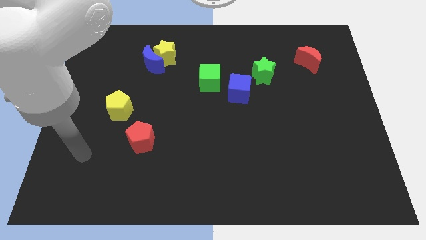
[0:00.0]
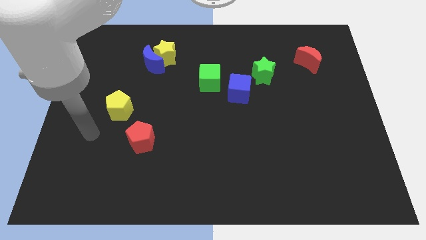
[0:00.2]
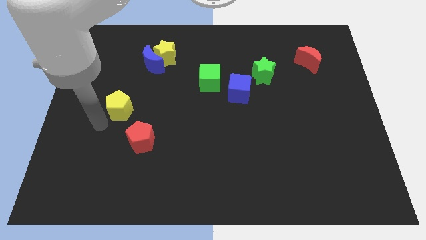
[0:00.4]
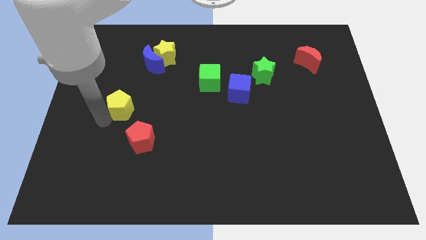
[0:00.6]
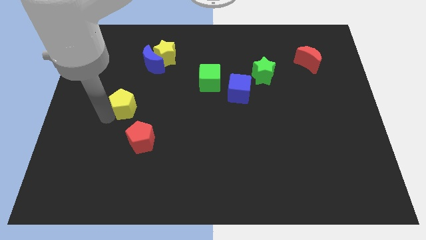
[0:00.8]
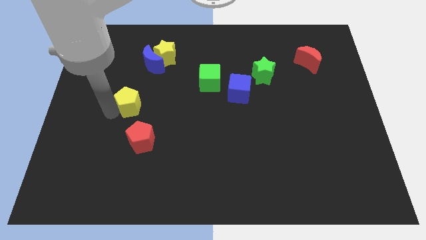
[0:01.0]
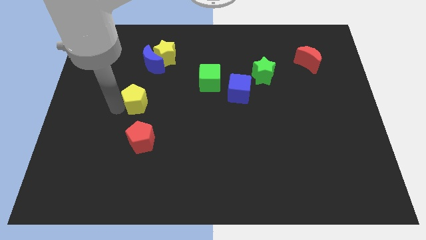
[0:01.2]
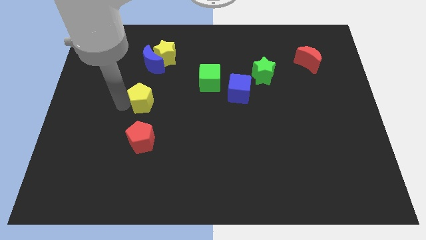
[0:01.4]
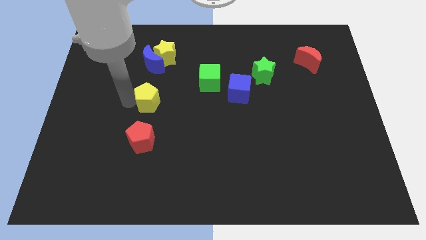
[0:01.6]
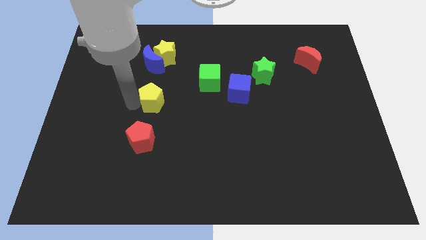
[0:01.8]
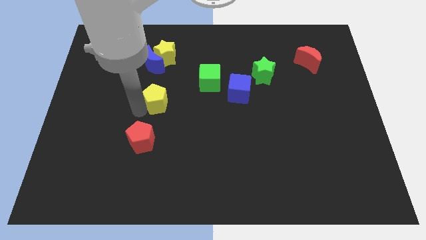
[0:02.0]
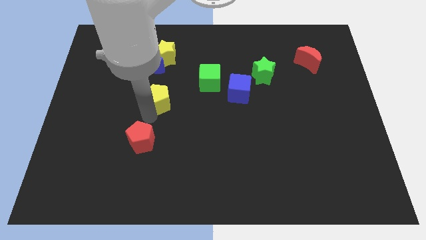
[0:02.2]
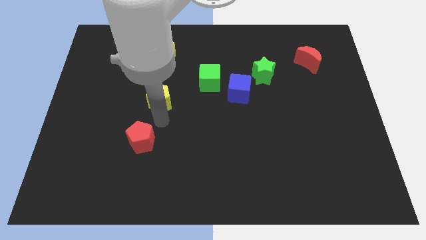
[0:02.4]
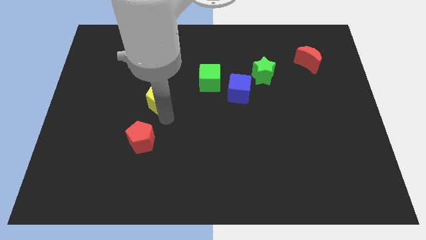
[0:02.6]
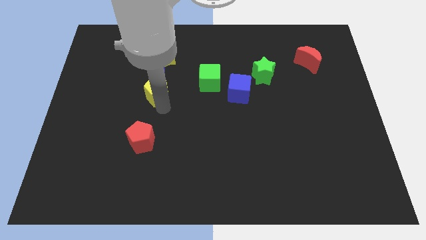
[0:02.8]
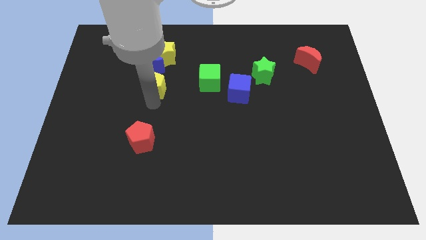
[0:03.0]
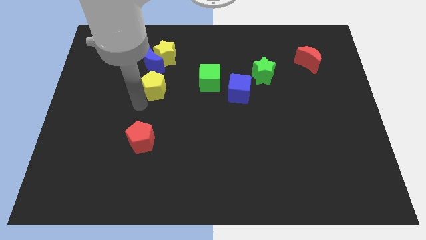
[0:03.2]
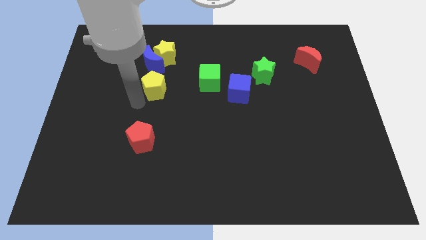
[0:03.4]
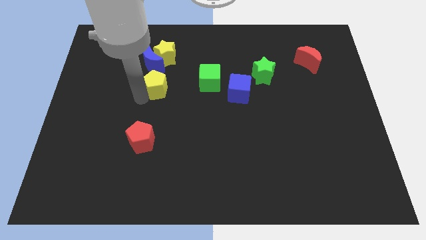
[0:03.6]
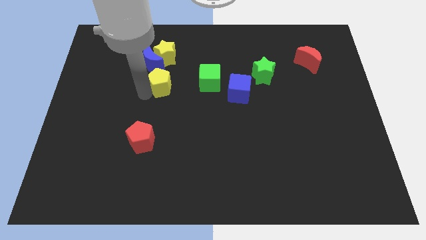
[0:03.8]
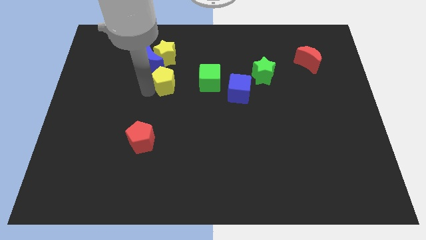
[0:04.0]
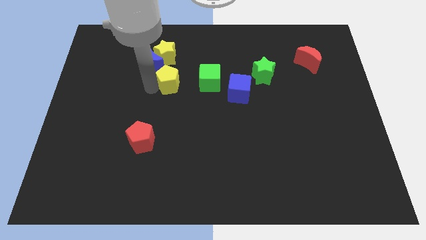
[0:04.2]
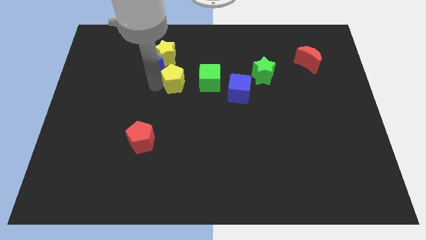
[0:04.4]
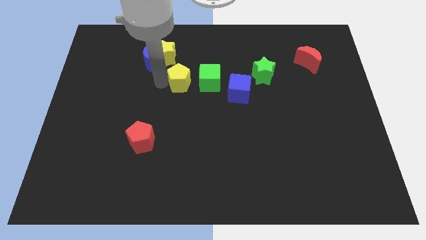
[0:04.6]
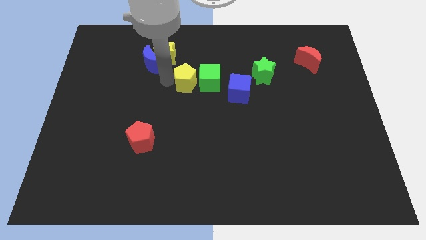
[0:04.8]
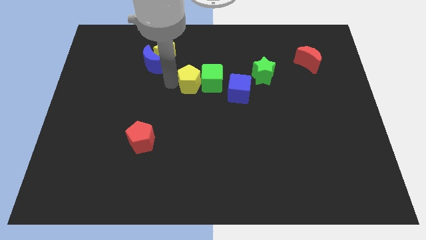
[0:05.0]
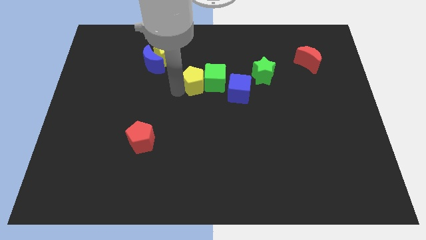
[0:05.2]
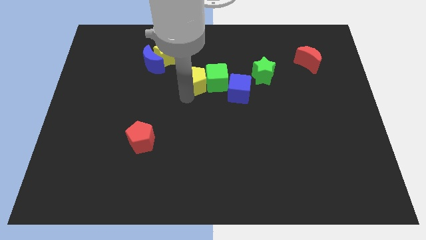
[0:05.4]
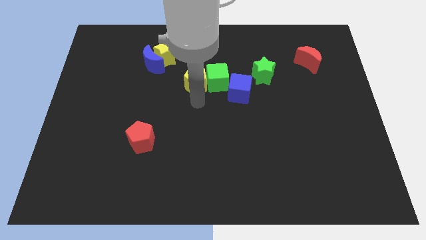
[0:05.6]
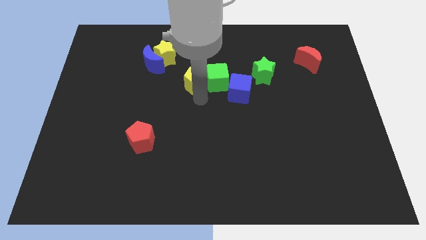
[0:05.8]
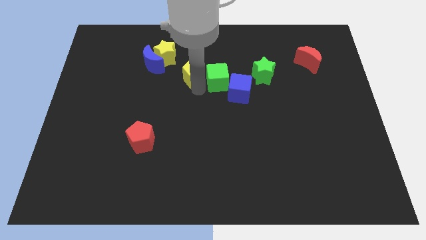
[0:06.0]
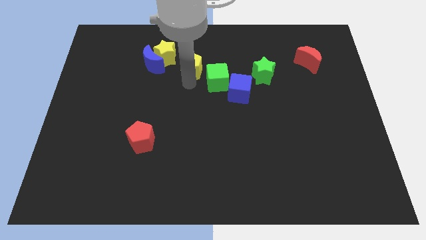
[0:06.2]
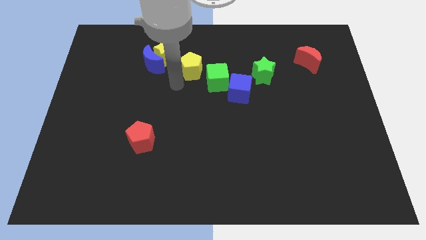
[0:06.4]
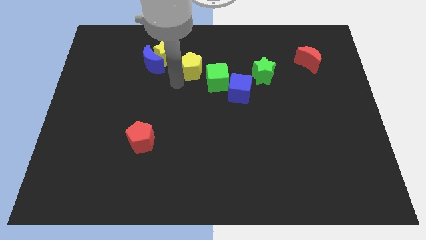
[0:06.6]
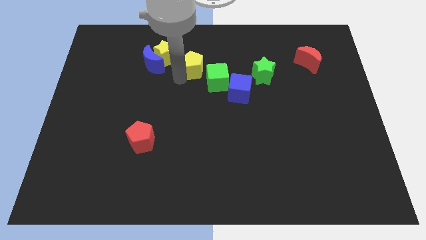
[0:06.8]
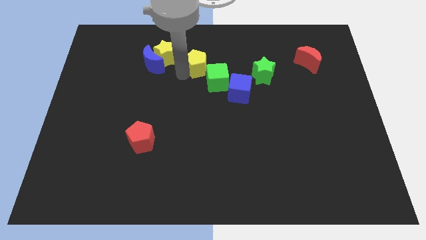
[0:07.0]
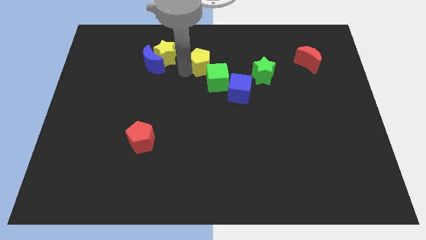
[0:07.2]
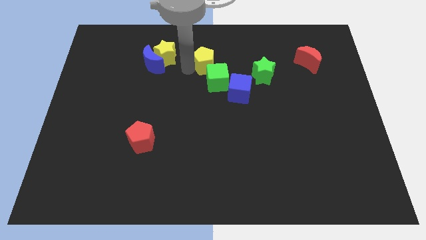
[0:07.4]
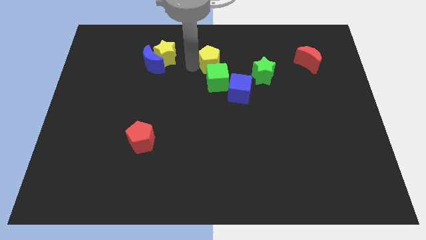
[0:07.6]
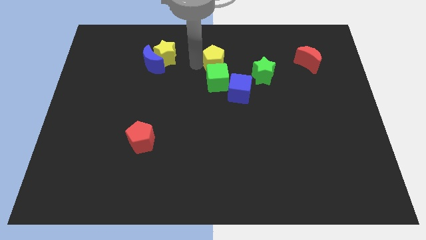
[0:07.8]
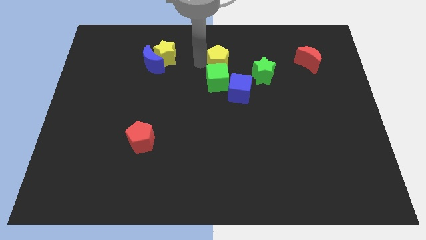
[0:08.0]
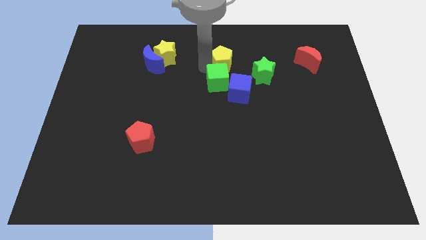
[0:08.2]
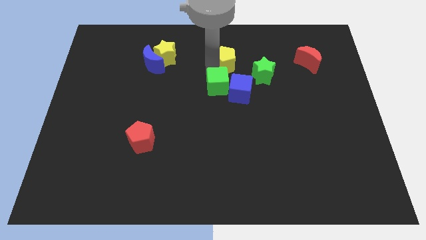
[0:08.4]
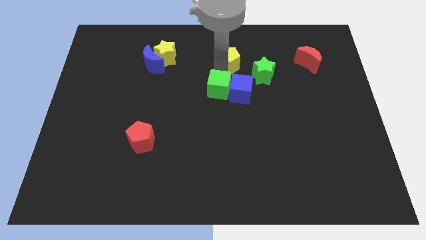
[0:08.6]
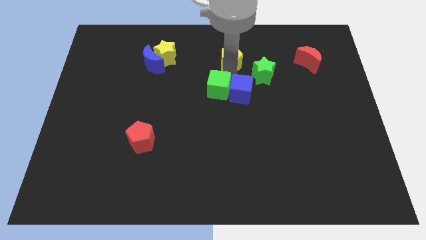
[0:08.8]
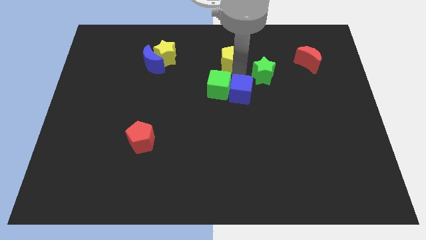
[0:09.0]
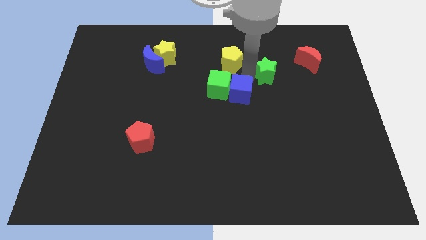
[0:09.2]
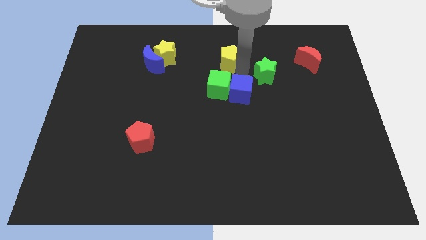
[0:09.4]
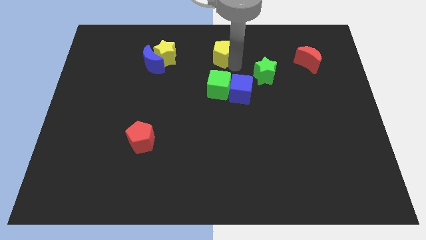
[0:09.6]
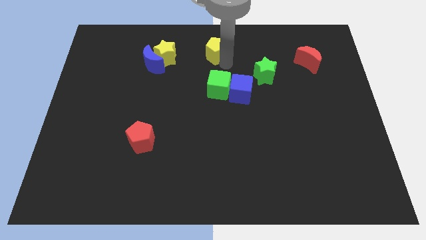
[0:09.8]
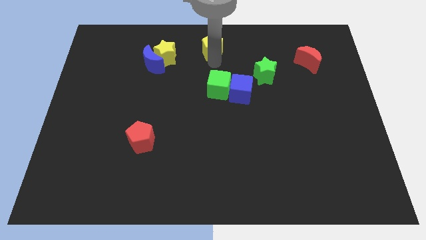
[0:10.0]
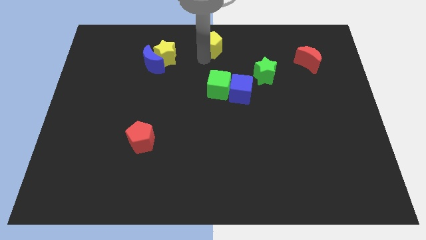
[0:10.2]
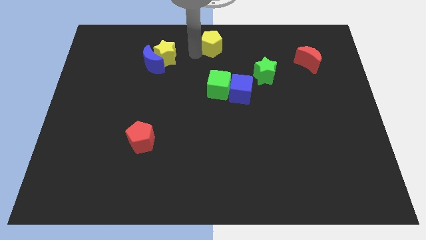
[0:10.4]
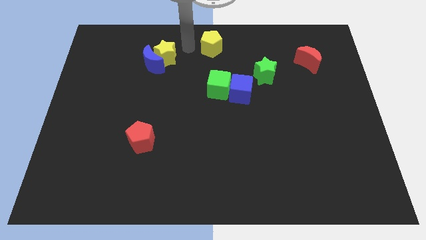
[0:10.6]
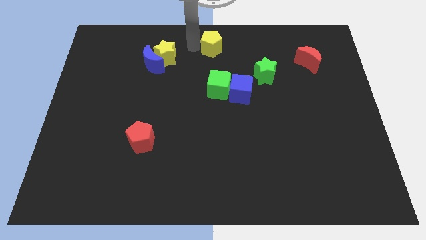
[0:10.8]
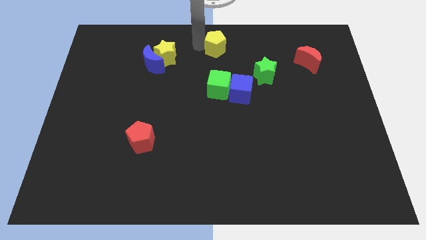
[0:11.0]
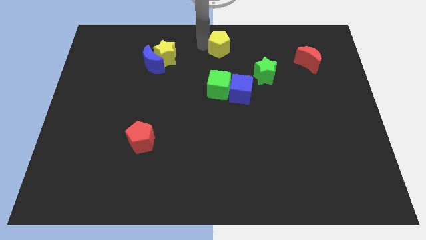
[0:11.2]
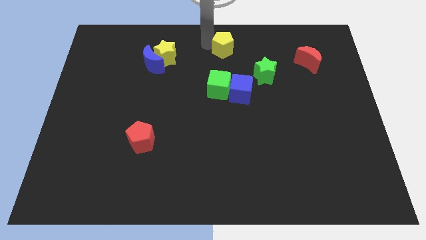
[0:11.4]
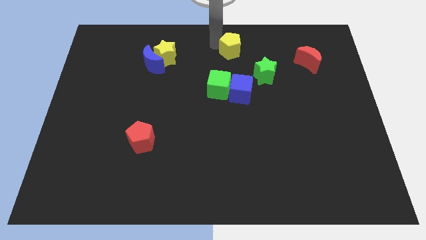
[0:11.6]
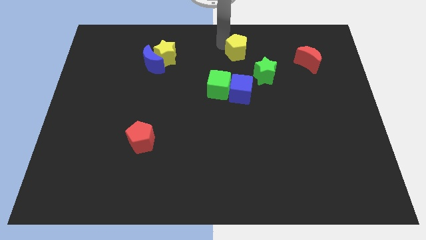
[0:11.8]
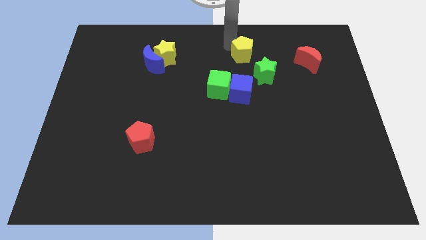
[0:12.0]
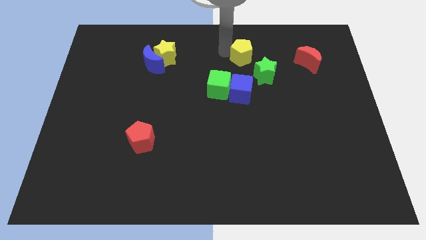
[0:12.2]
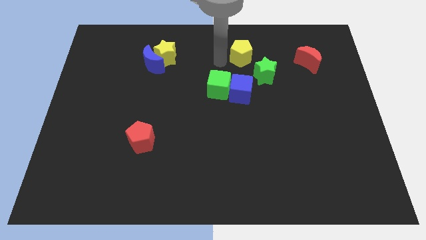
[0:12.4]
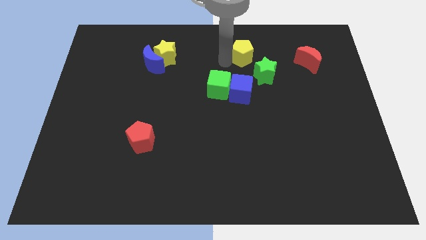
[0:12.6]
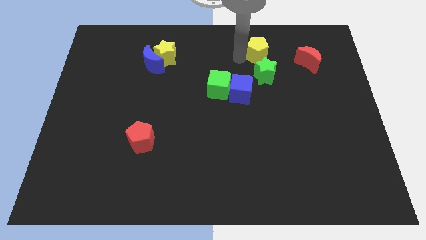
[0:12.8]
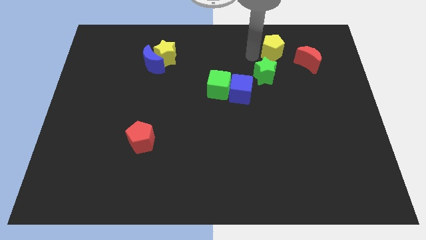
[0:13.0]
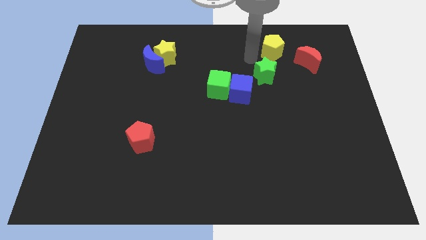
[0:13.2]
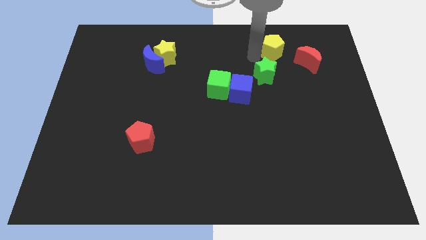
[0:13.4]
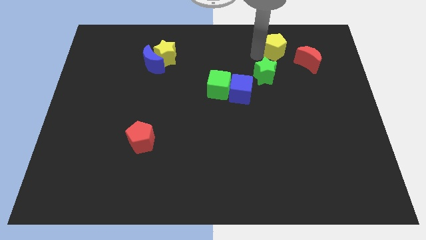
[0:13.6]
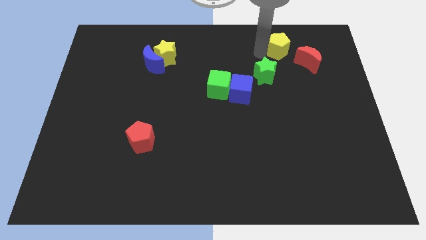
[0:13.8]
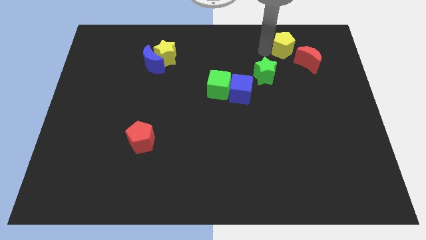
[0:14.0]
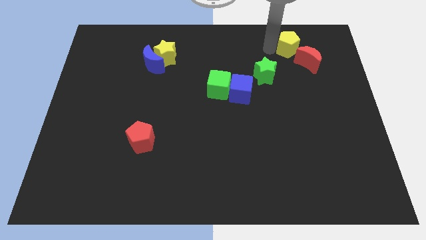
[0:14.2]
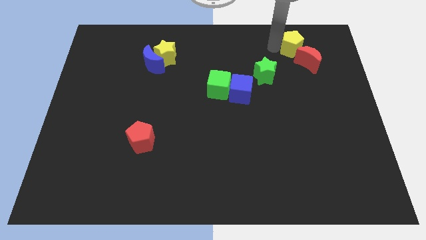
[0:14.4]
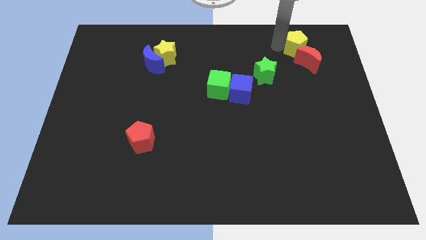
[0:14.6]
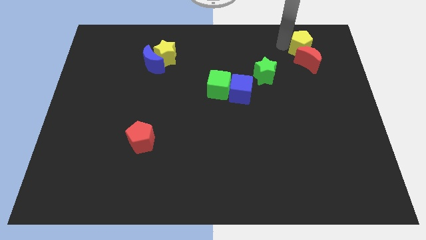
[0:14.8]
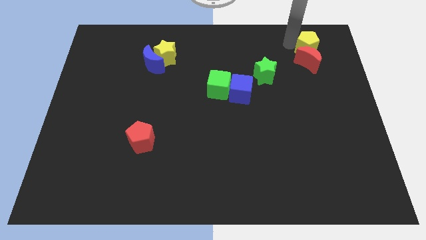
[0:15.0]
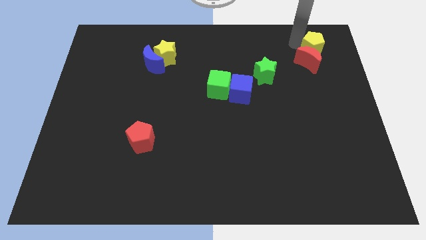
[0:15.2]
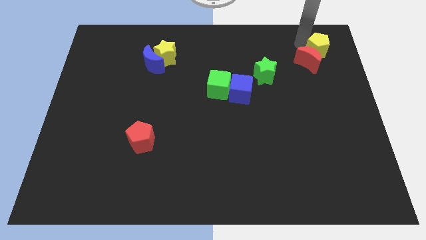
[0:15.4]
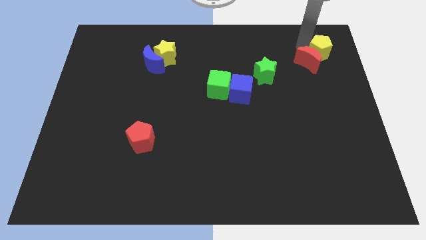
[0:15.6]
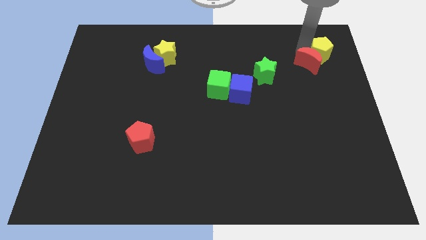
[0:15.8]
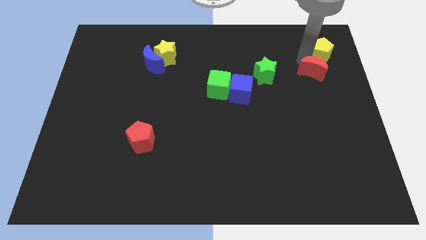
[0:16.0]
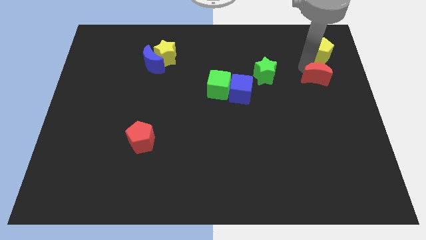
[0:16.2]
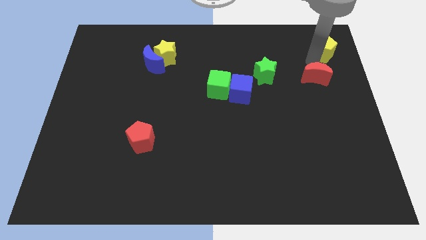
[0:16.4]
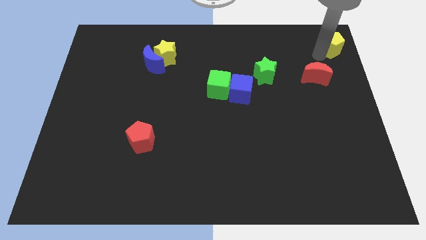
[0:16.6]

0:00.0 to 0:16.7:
put the yellow pentagon to the upper right corner
